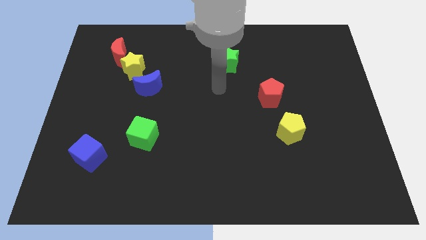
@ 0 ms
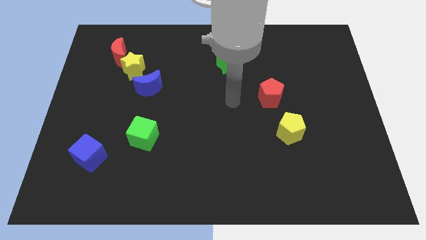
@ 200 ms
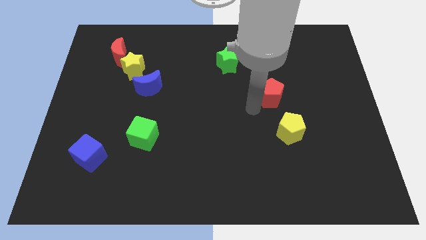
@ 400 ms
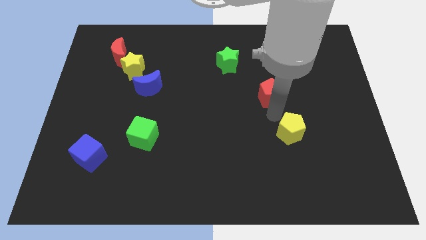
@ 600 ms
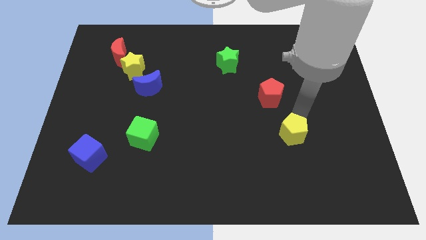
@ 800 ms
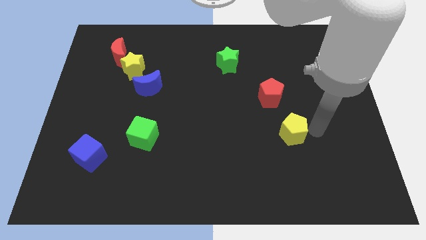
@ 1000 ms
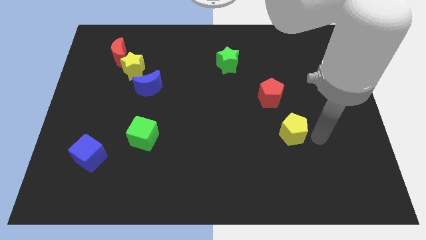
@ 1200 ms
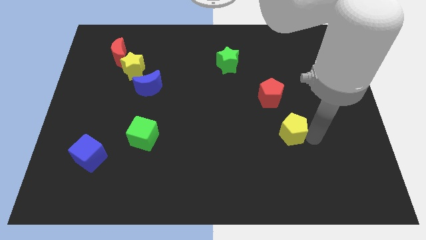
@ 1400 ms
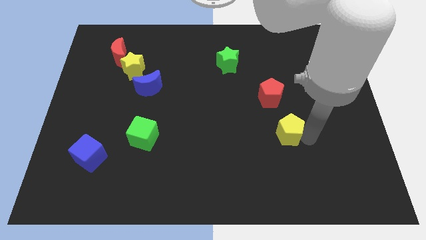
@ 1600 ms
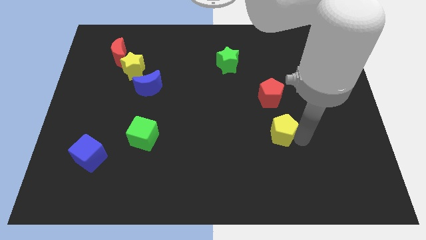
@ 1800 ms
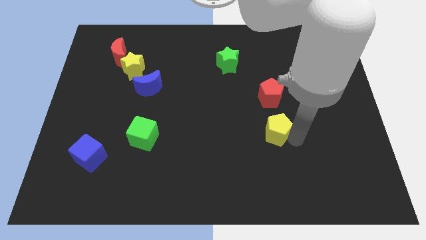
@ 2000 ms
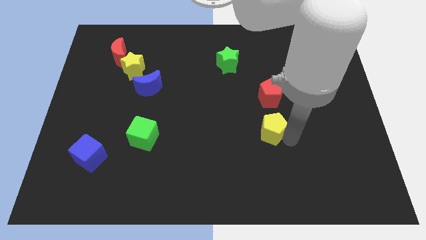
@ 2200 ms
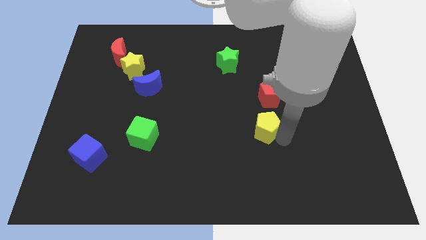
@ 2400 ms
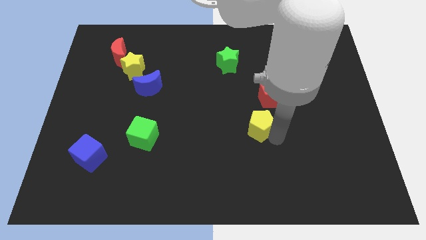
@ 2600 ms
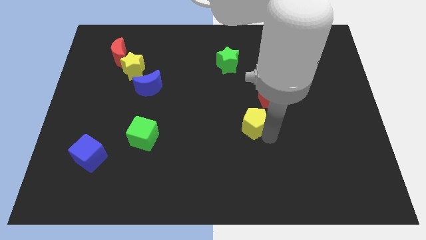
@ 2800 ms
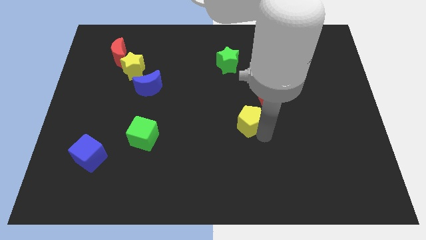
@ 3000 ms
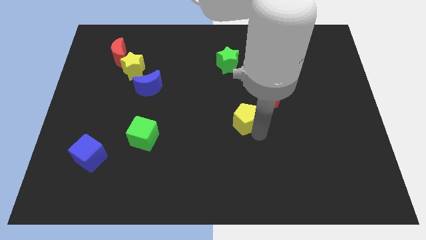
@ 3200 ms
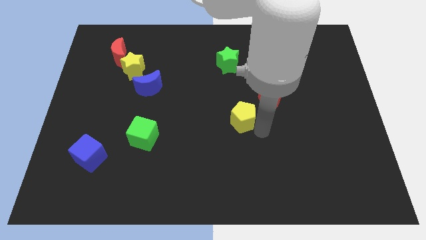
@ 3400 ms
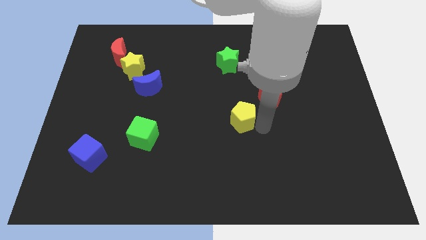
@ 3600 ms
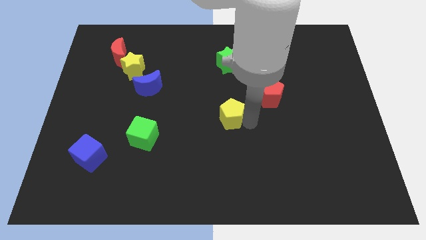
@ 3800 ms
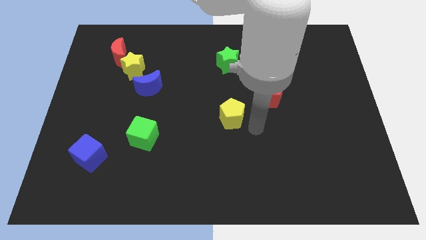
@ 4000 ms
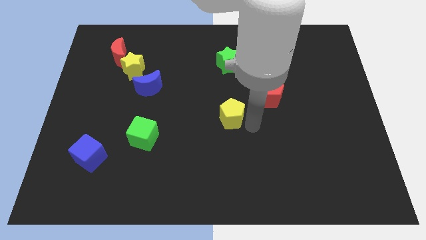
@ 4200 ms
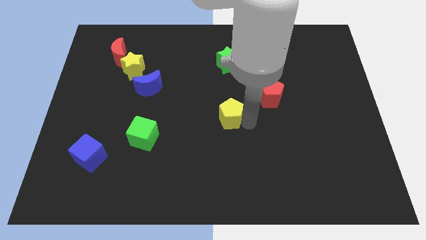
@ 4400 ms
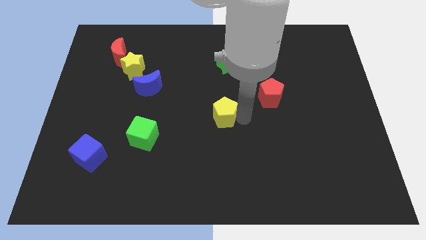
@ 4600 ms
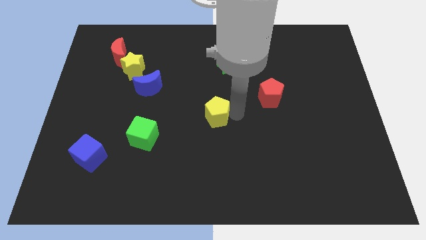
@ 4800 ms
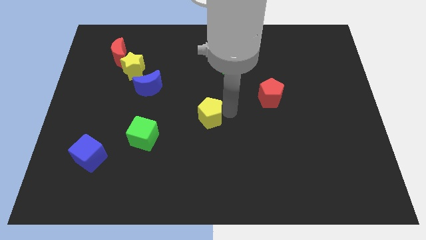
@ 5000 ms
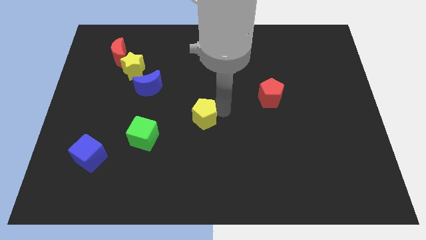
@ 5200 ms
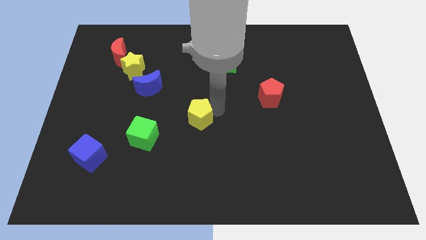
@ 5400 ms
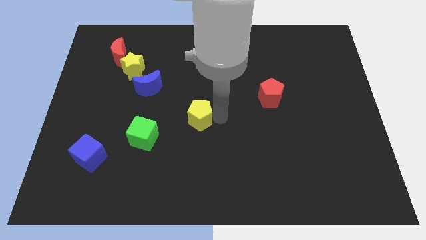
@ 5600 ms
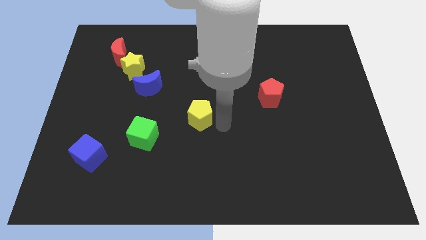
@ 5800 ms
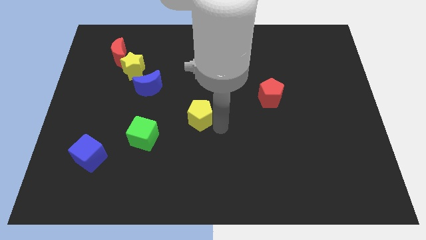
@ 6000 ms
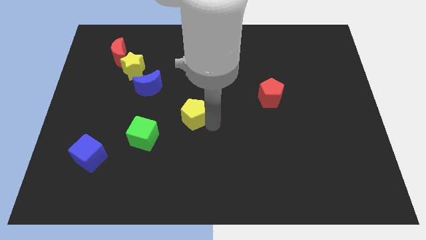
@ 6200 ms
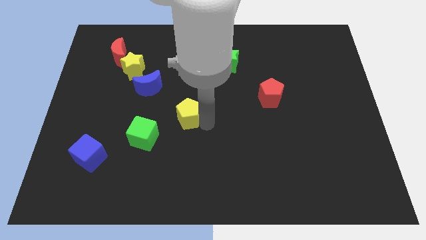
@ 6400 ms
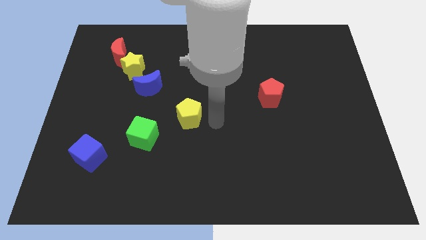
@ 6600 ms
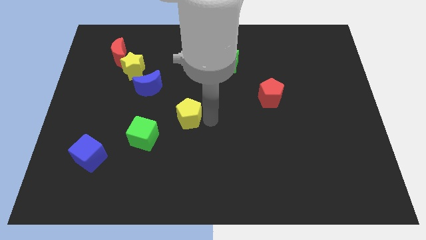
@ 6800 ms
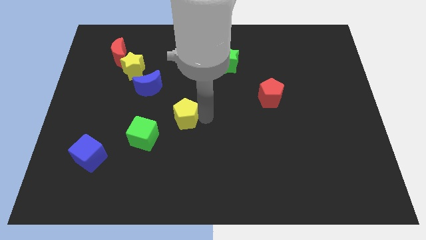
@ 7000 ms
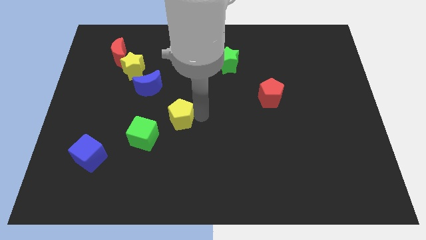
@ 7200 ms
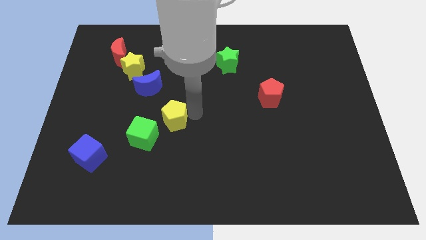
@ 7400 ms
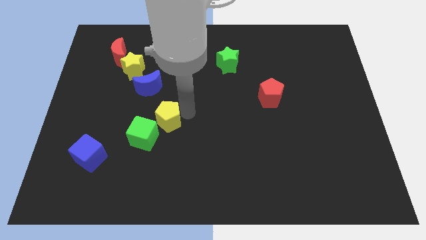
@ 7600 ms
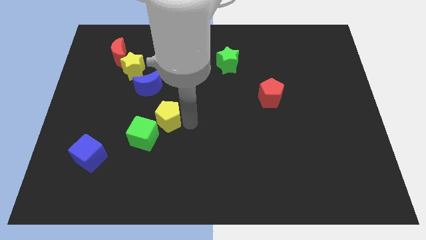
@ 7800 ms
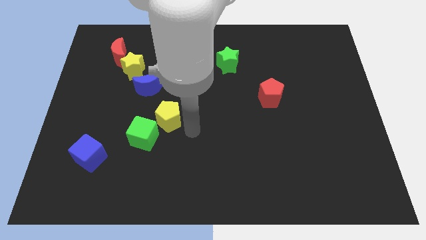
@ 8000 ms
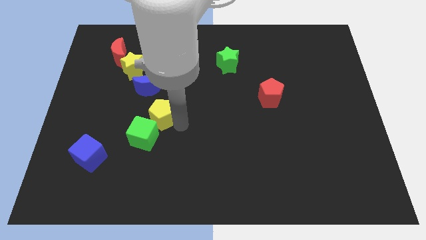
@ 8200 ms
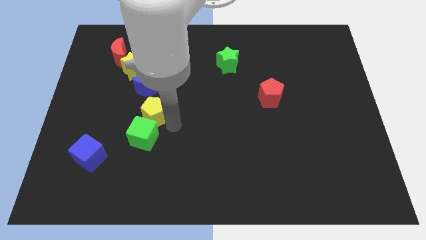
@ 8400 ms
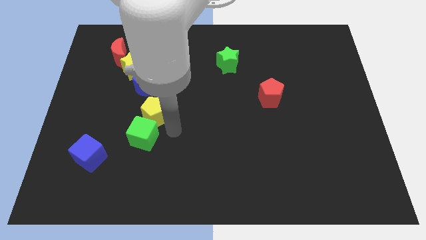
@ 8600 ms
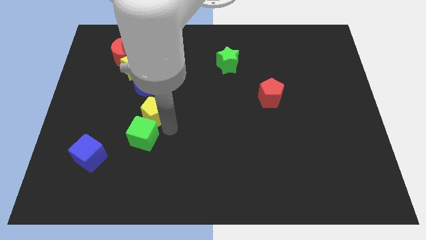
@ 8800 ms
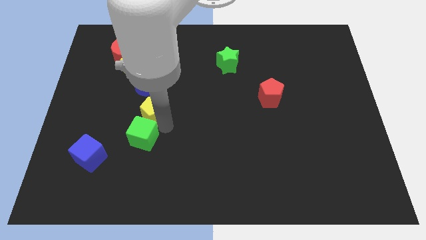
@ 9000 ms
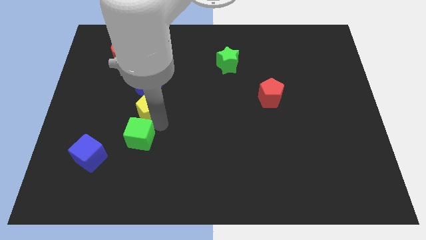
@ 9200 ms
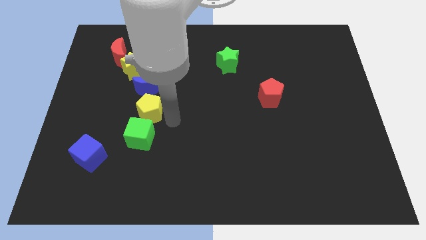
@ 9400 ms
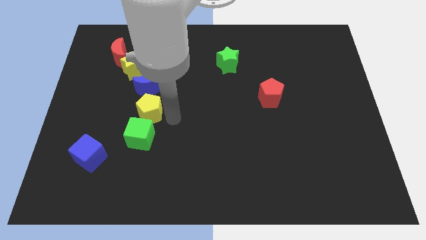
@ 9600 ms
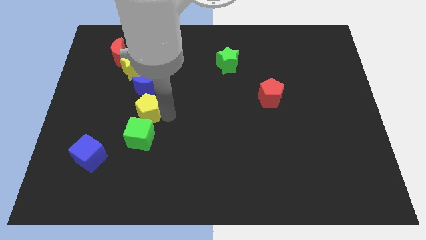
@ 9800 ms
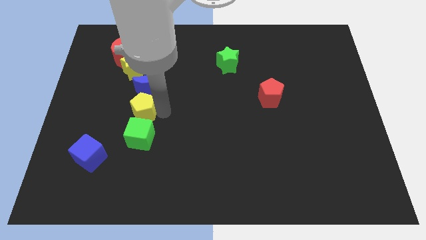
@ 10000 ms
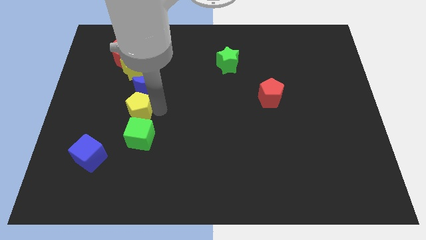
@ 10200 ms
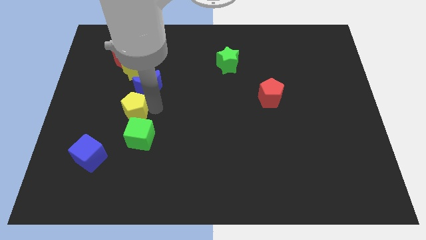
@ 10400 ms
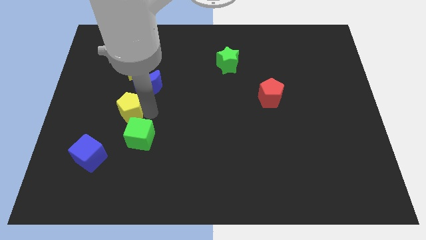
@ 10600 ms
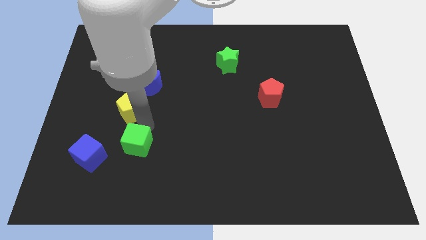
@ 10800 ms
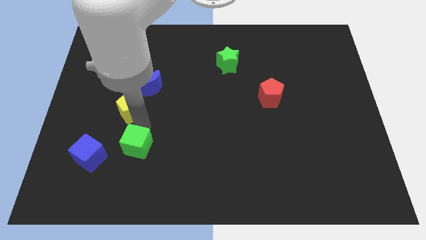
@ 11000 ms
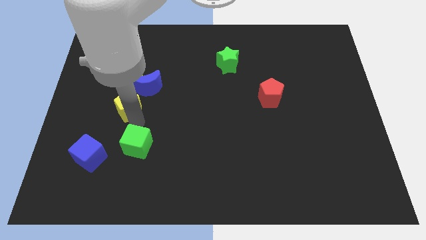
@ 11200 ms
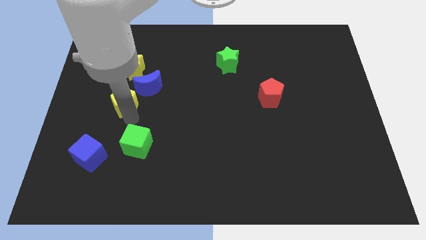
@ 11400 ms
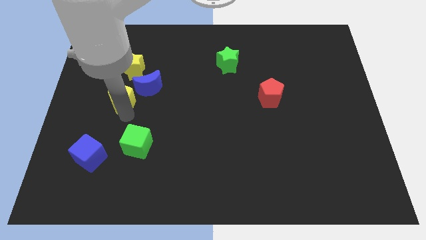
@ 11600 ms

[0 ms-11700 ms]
move the yellow pentagon below the red moon

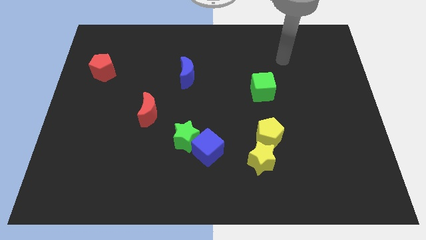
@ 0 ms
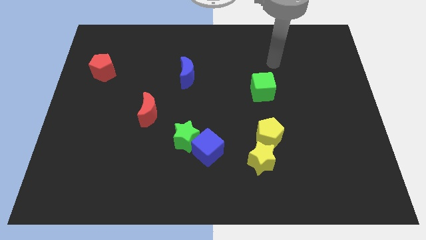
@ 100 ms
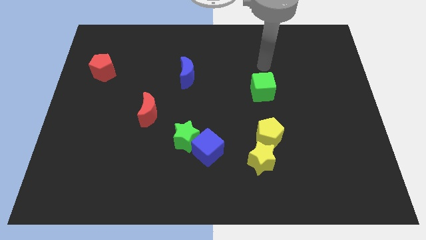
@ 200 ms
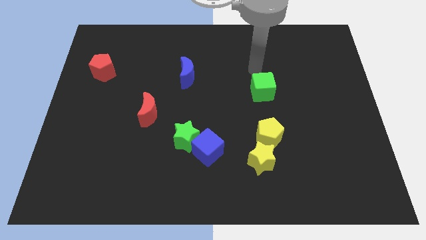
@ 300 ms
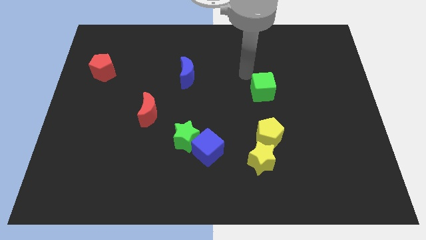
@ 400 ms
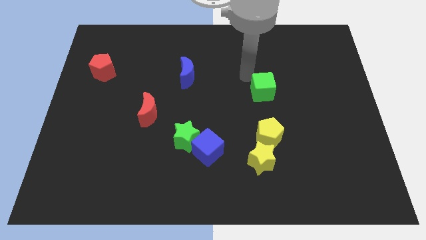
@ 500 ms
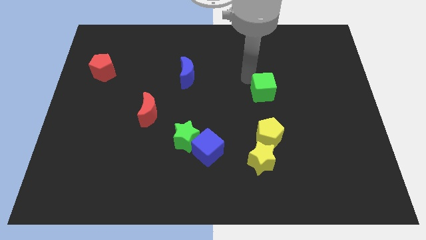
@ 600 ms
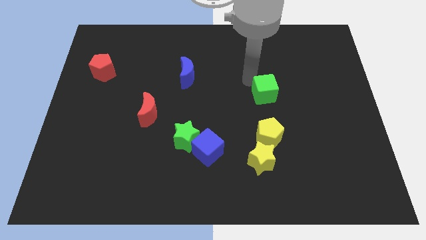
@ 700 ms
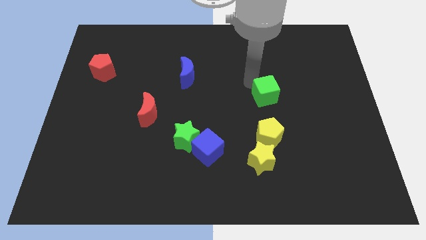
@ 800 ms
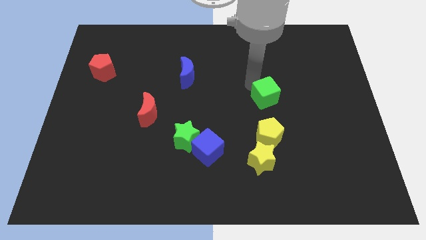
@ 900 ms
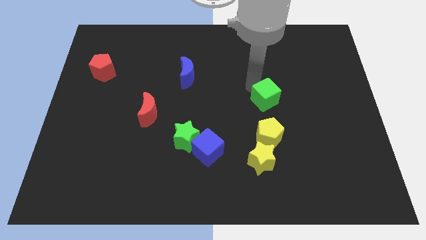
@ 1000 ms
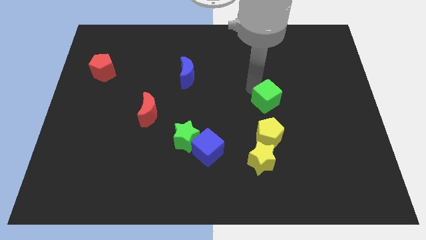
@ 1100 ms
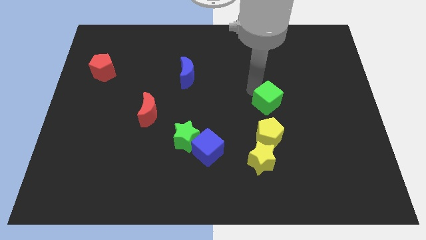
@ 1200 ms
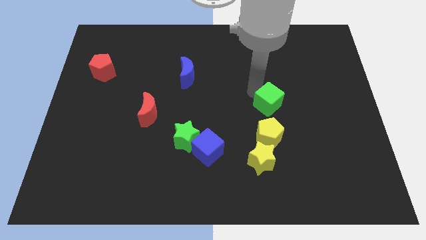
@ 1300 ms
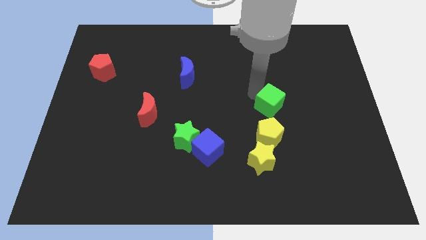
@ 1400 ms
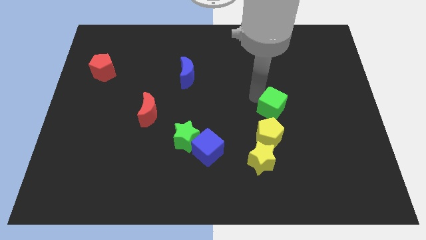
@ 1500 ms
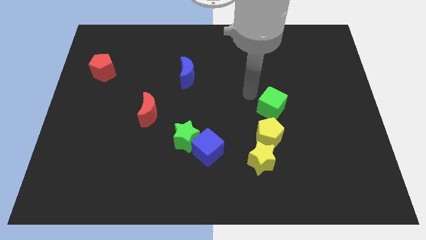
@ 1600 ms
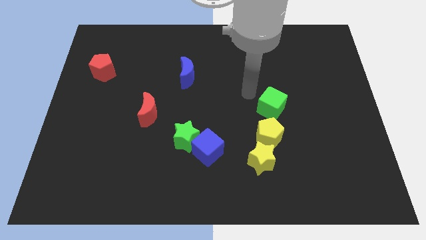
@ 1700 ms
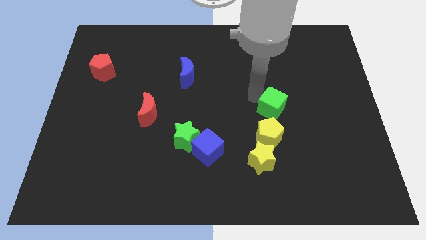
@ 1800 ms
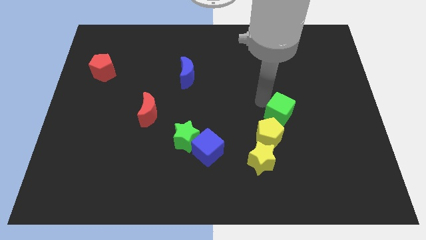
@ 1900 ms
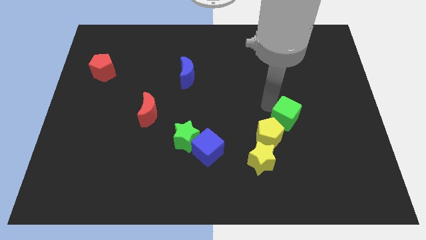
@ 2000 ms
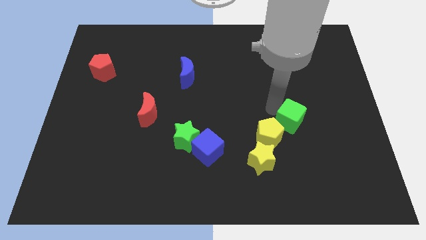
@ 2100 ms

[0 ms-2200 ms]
put the green cube to the right of the yellow pentagon
